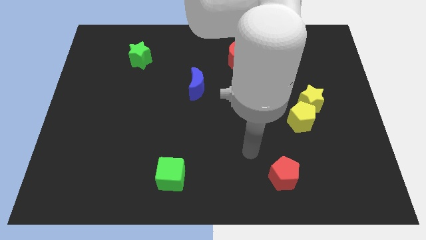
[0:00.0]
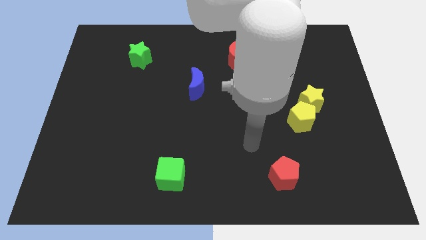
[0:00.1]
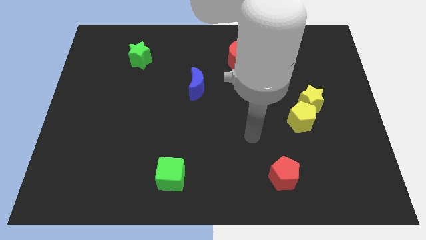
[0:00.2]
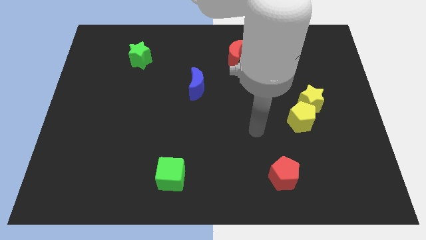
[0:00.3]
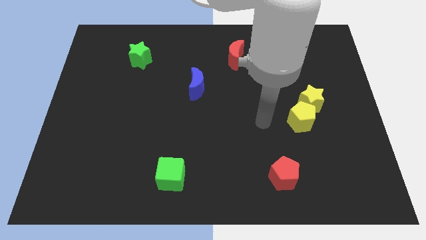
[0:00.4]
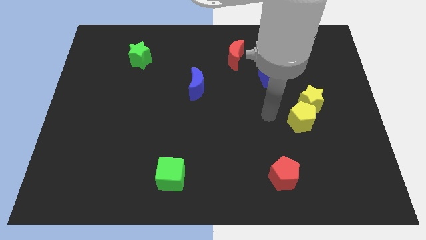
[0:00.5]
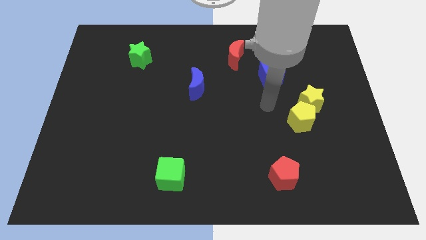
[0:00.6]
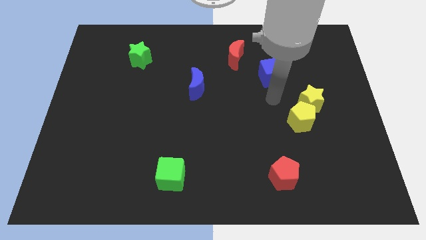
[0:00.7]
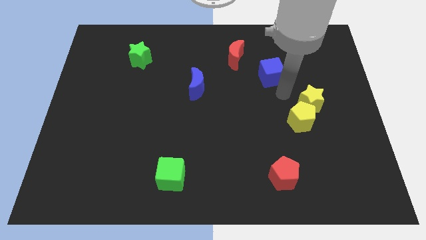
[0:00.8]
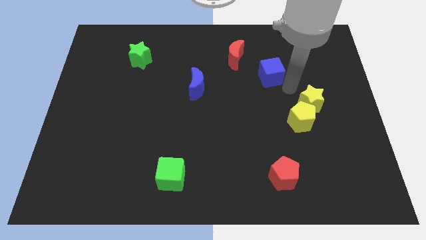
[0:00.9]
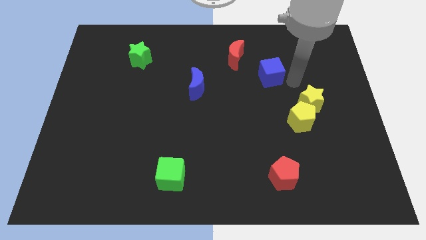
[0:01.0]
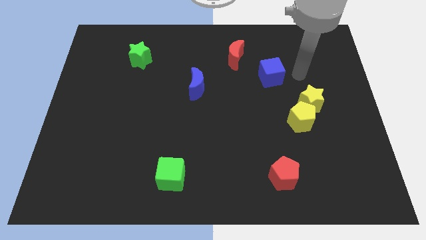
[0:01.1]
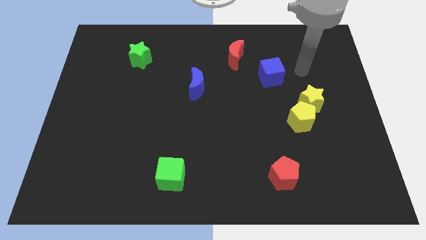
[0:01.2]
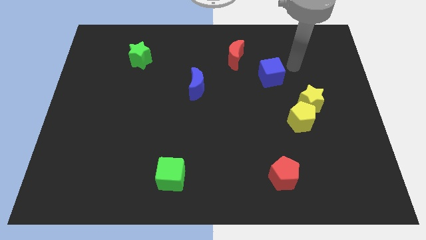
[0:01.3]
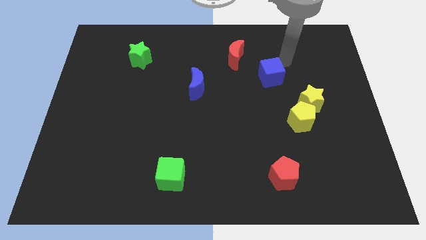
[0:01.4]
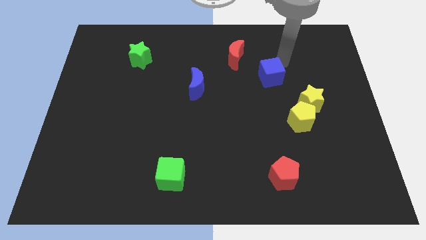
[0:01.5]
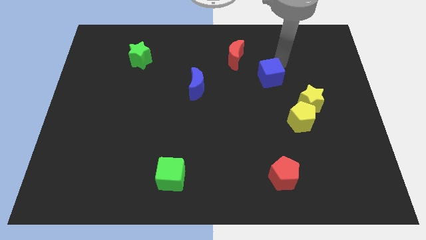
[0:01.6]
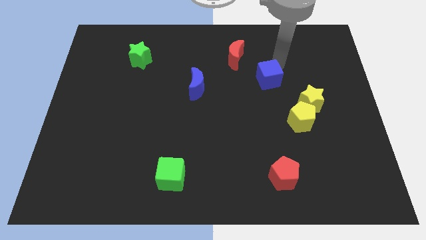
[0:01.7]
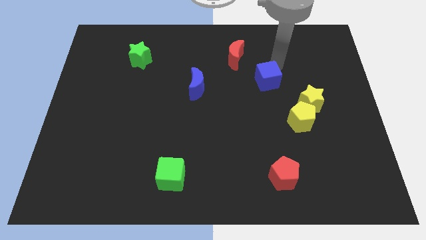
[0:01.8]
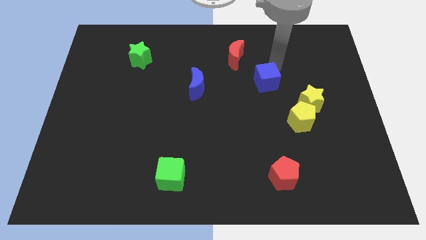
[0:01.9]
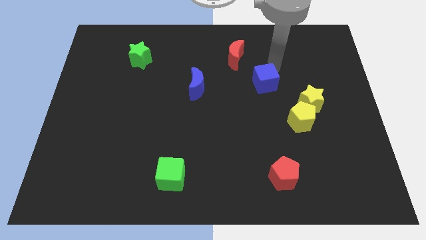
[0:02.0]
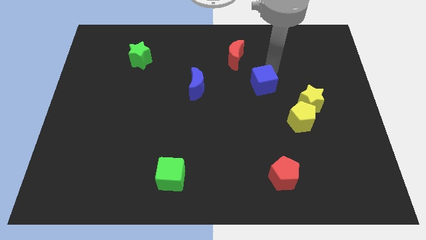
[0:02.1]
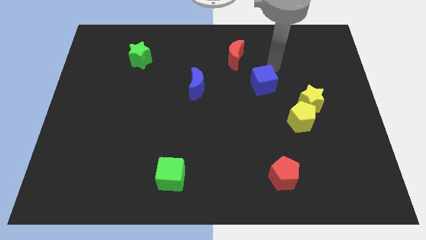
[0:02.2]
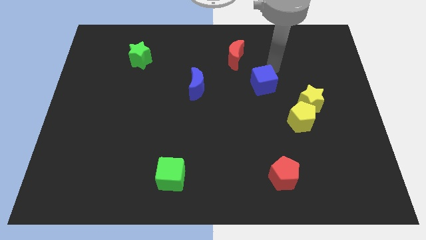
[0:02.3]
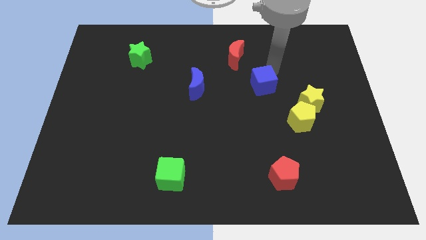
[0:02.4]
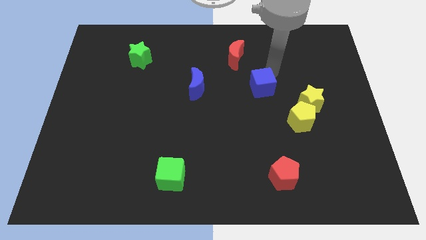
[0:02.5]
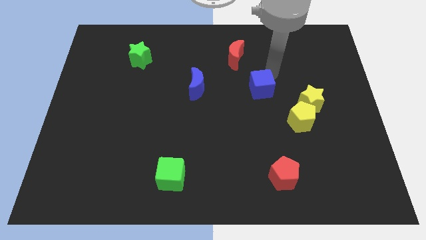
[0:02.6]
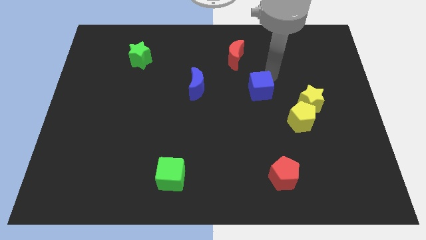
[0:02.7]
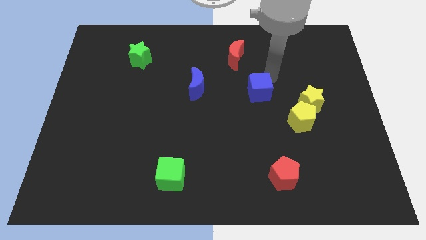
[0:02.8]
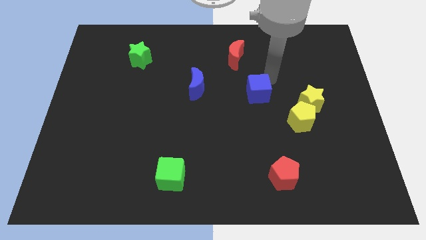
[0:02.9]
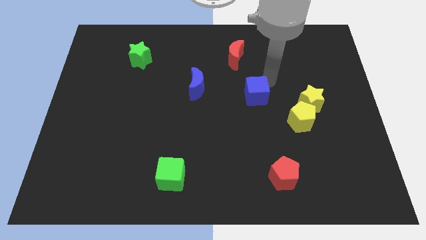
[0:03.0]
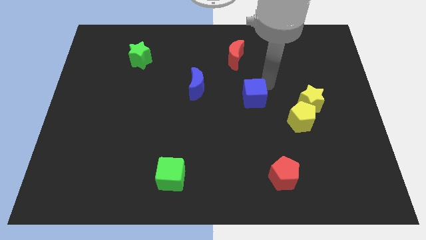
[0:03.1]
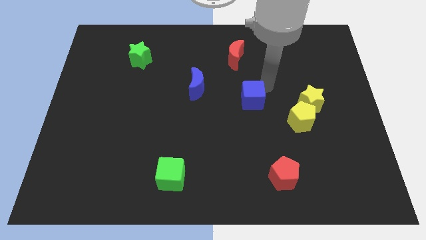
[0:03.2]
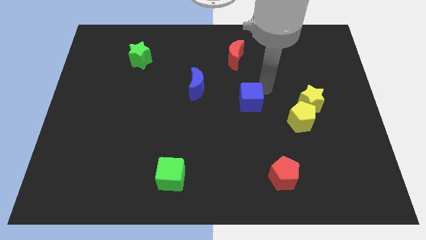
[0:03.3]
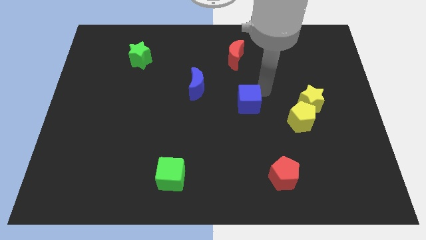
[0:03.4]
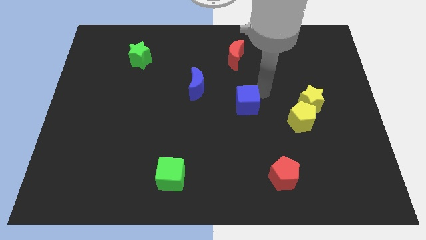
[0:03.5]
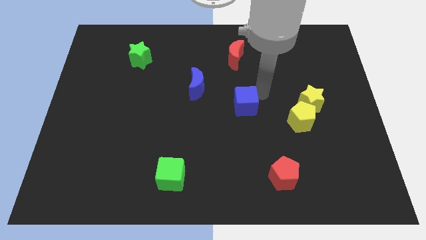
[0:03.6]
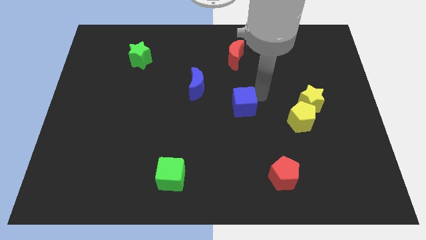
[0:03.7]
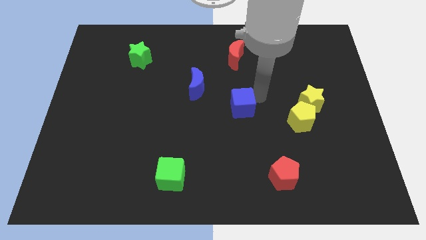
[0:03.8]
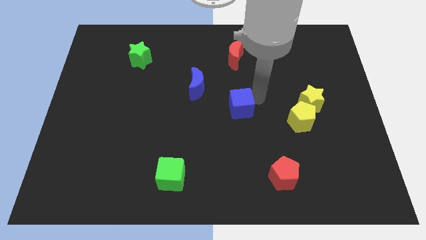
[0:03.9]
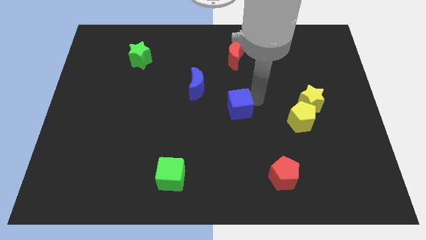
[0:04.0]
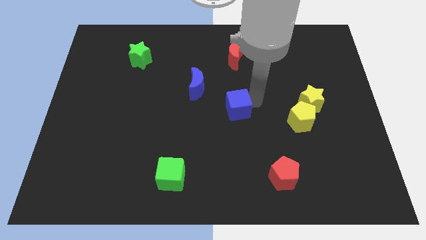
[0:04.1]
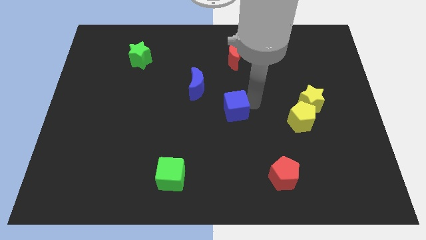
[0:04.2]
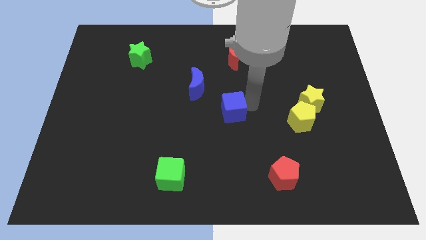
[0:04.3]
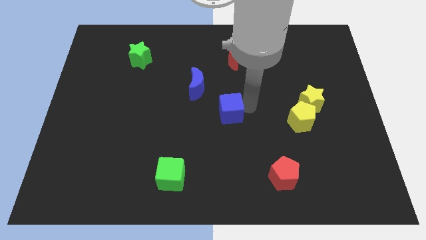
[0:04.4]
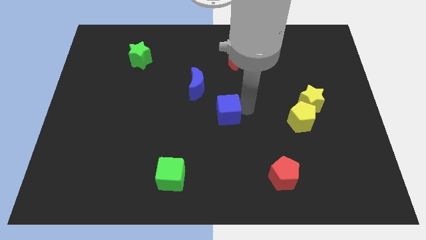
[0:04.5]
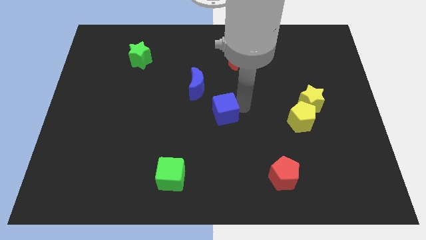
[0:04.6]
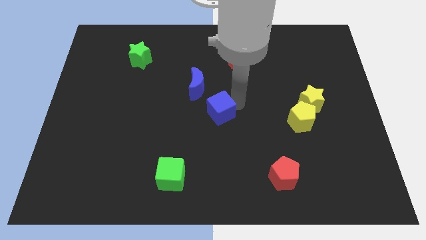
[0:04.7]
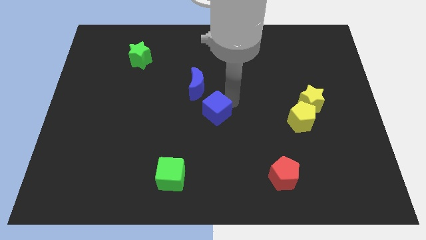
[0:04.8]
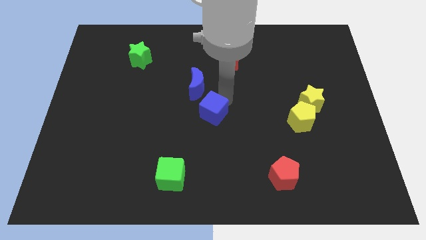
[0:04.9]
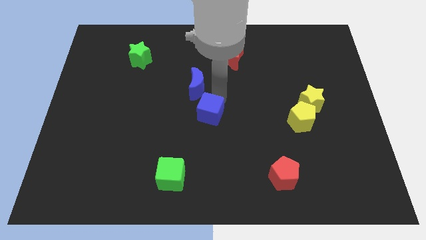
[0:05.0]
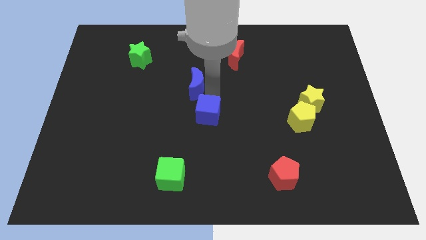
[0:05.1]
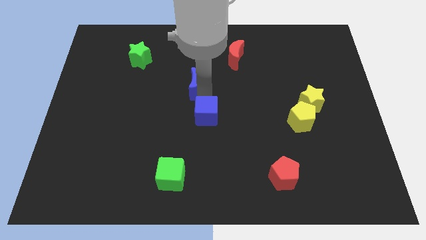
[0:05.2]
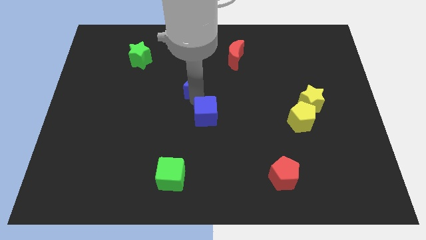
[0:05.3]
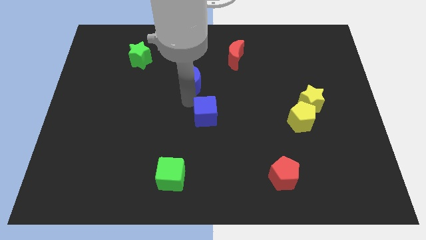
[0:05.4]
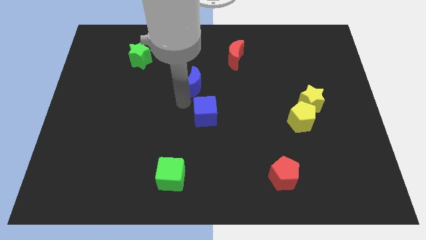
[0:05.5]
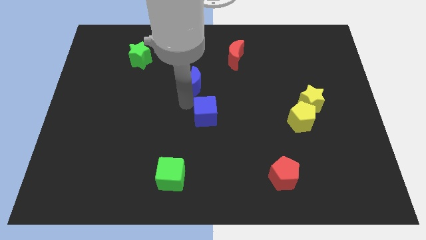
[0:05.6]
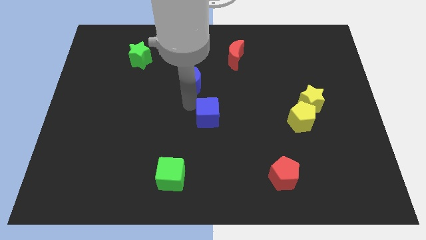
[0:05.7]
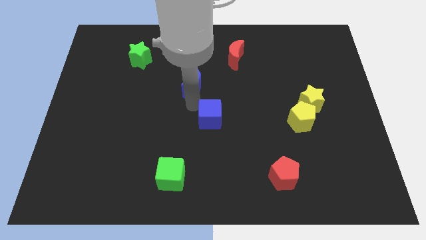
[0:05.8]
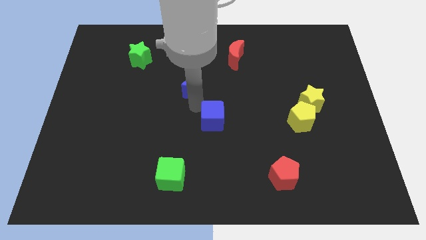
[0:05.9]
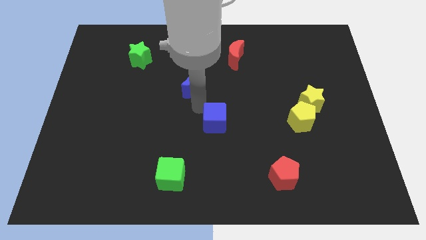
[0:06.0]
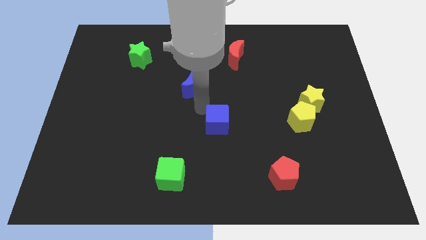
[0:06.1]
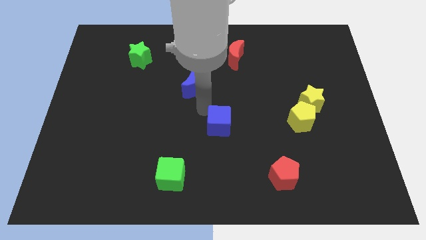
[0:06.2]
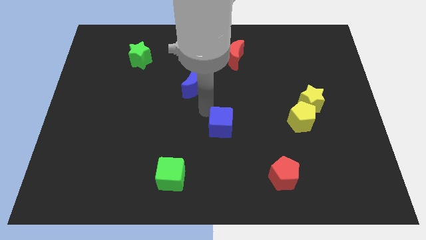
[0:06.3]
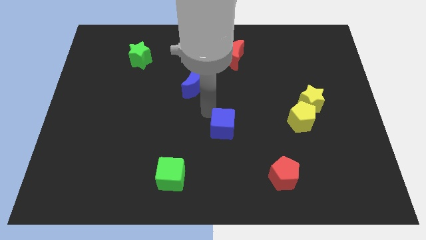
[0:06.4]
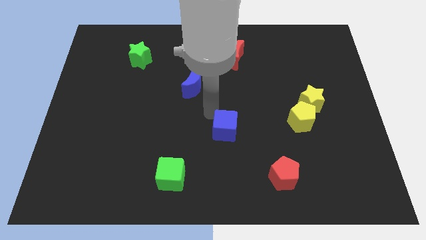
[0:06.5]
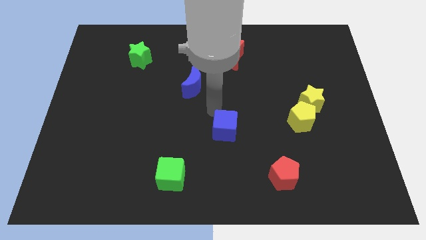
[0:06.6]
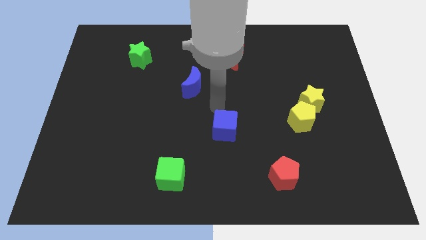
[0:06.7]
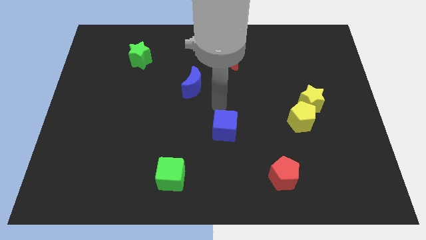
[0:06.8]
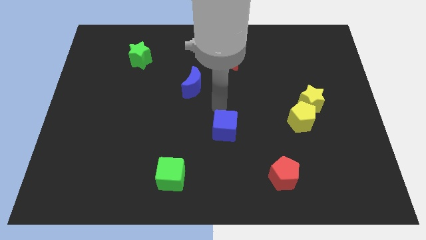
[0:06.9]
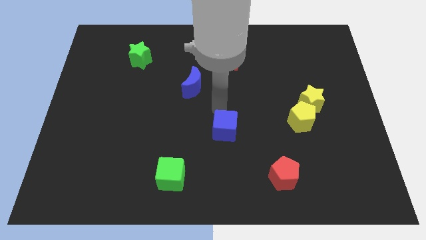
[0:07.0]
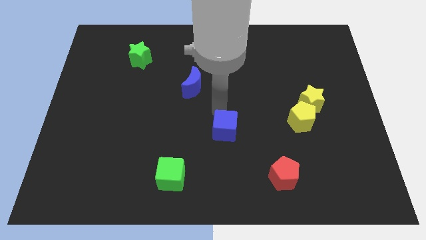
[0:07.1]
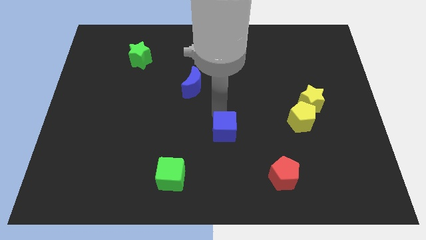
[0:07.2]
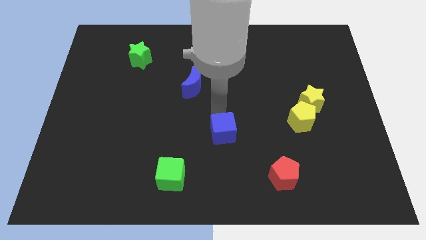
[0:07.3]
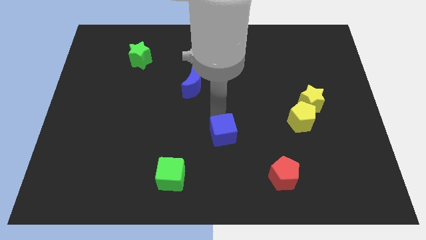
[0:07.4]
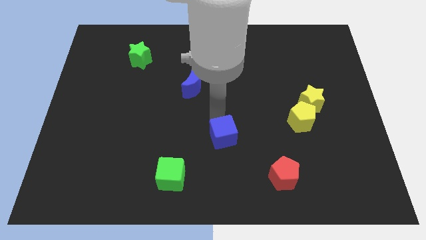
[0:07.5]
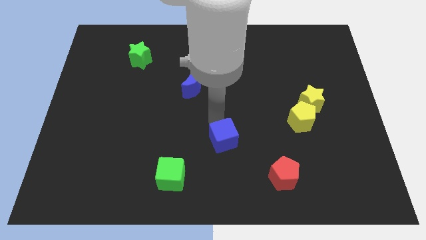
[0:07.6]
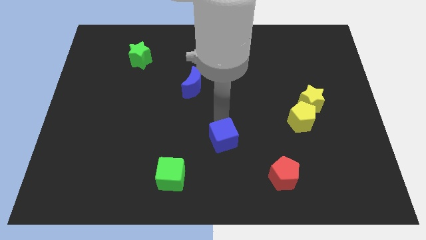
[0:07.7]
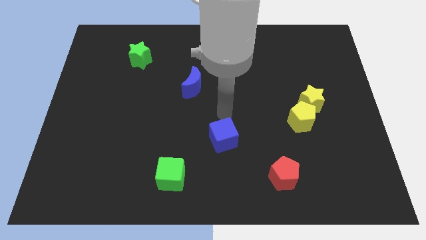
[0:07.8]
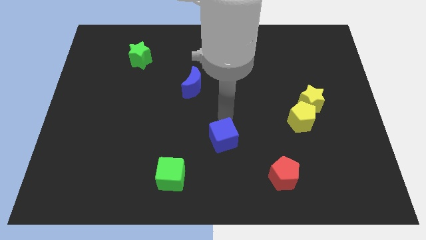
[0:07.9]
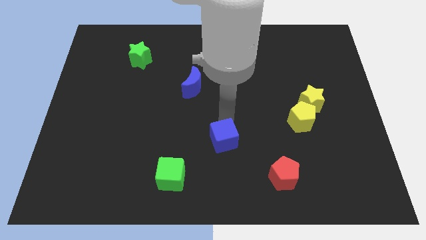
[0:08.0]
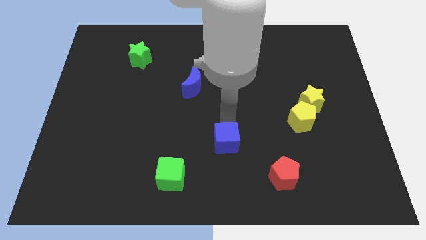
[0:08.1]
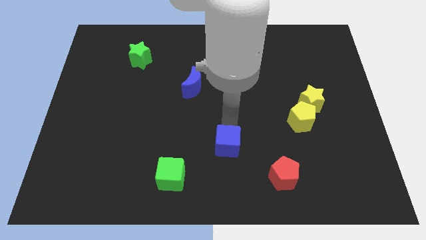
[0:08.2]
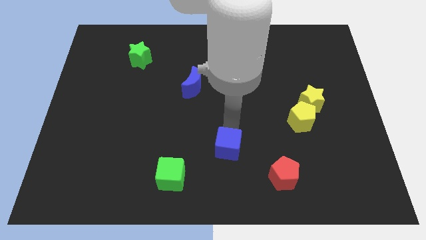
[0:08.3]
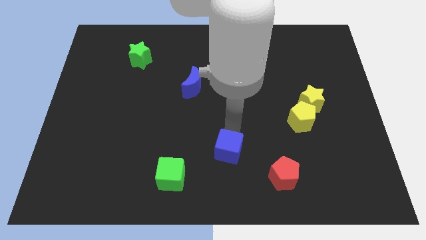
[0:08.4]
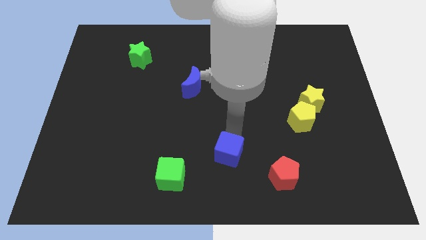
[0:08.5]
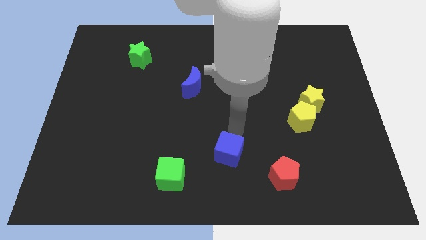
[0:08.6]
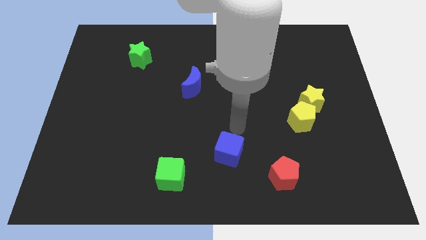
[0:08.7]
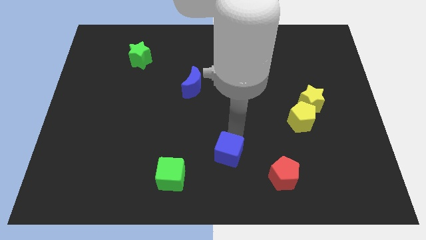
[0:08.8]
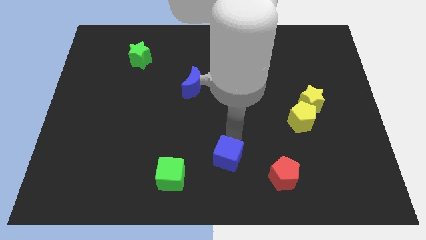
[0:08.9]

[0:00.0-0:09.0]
put the blue cube to the bottom side
